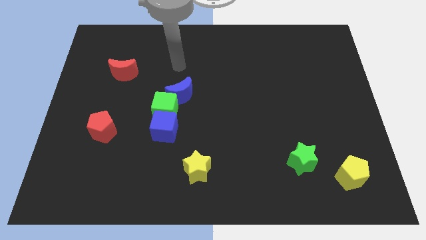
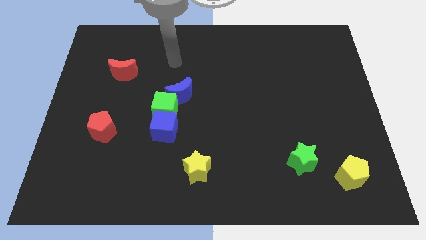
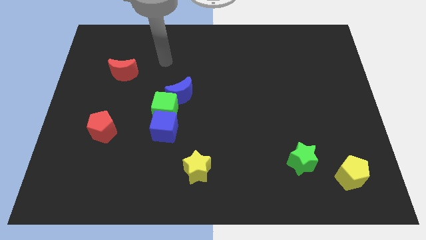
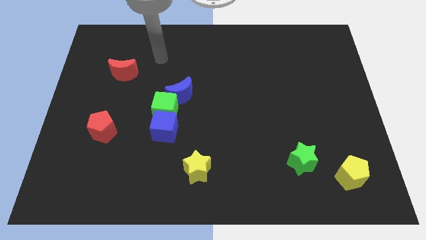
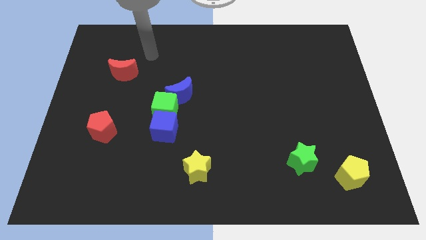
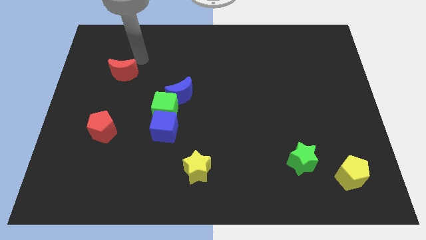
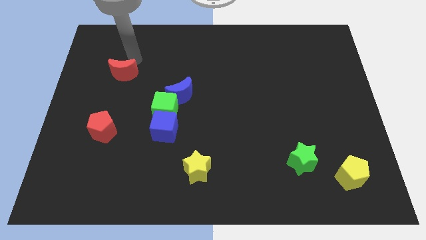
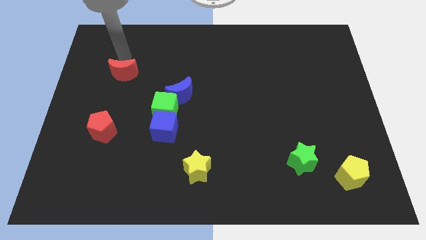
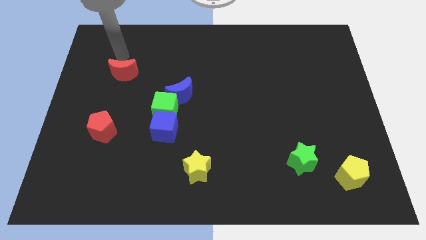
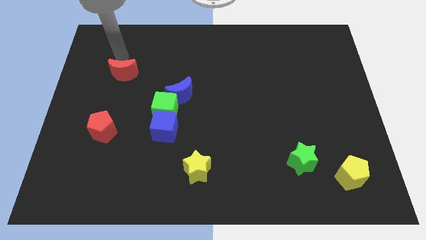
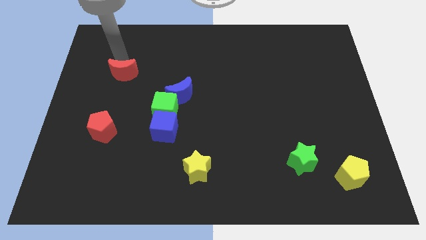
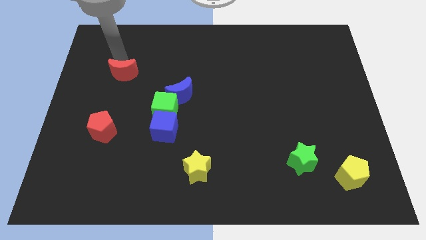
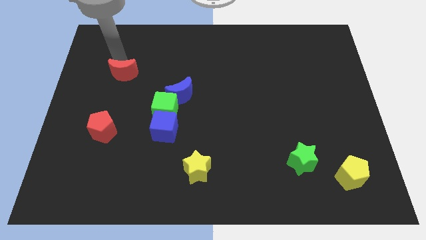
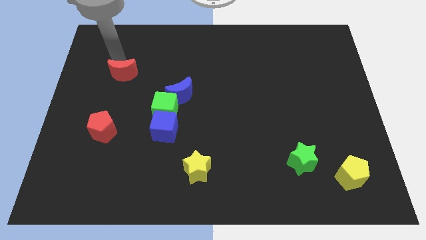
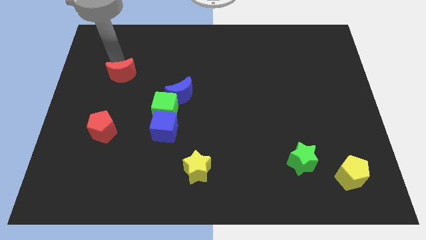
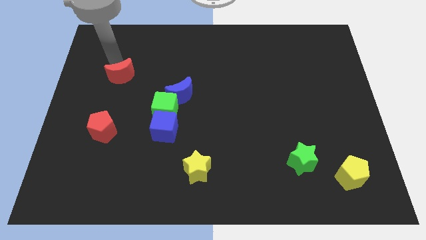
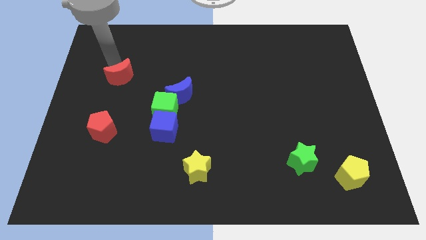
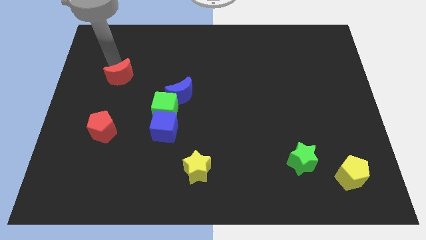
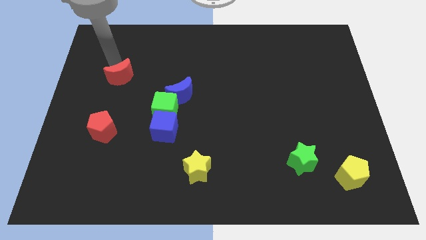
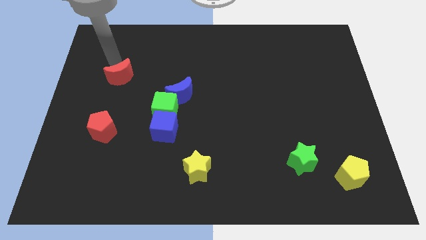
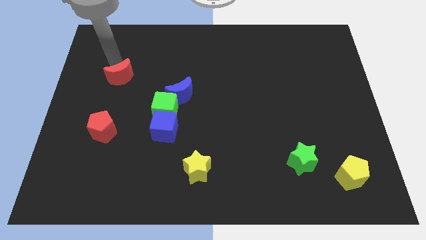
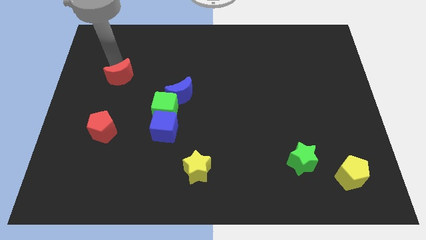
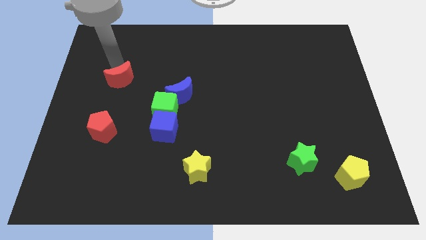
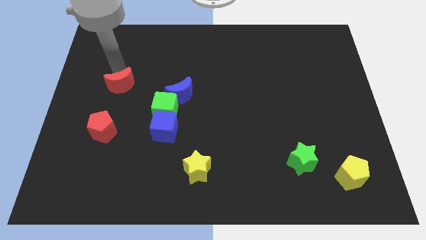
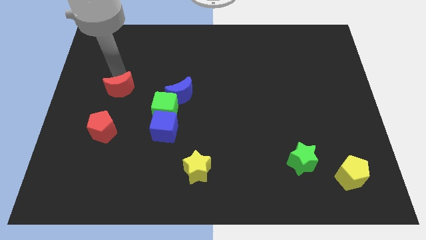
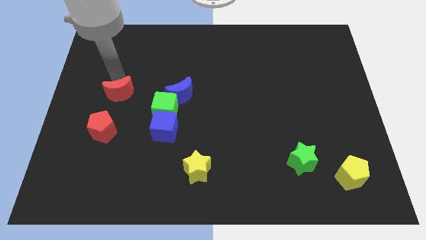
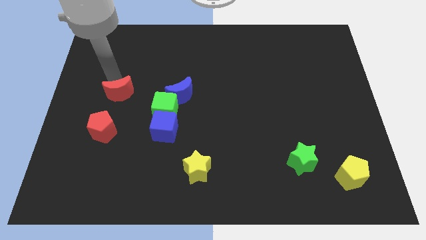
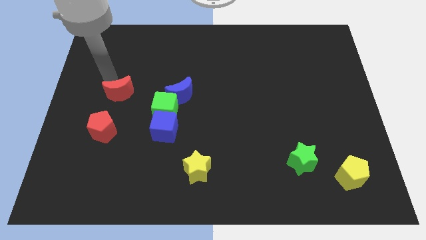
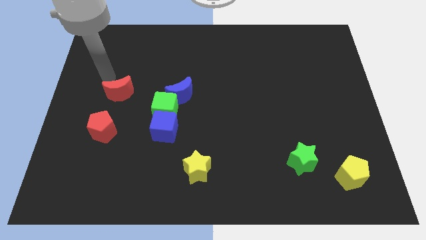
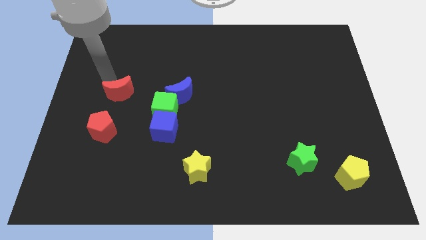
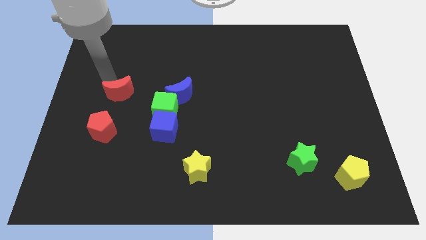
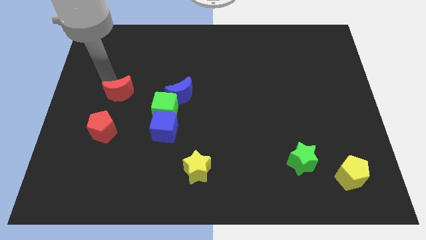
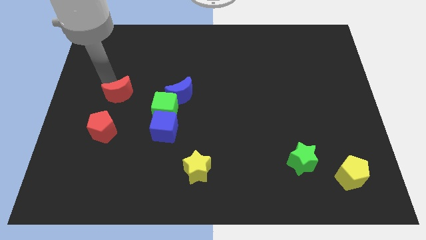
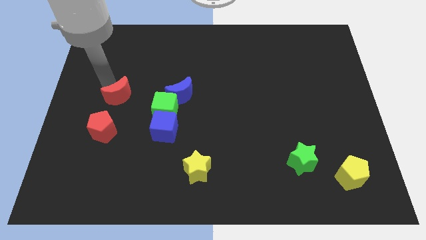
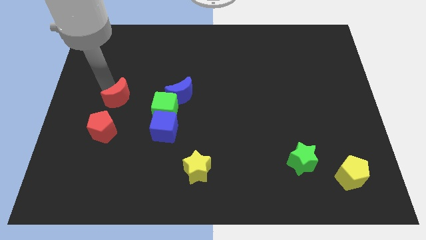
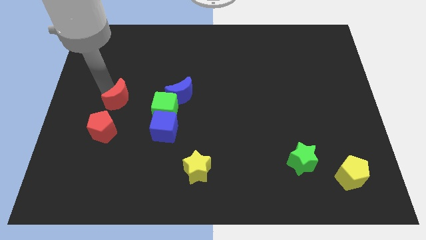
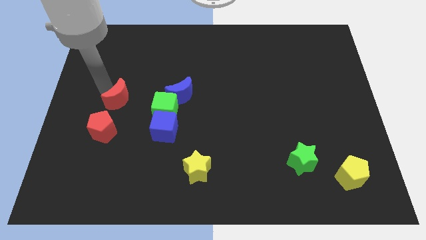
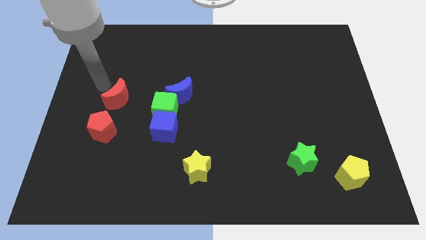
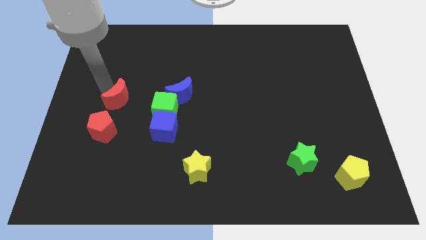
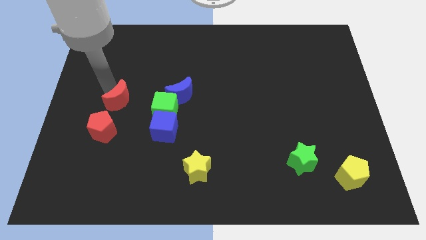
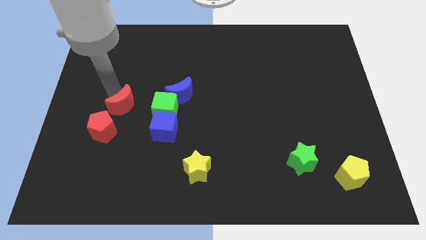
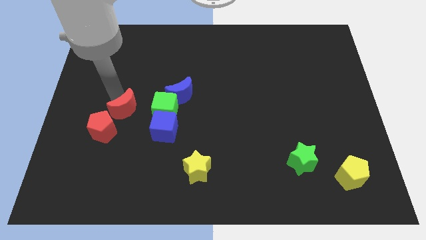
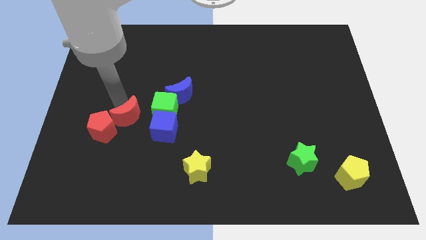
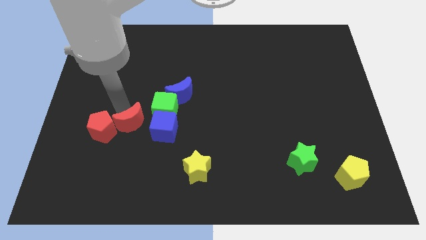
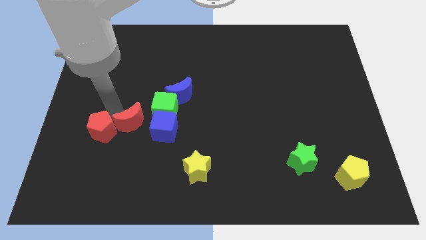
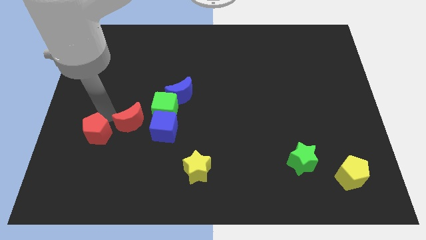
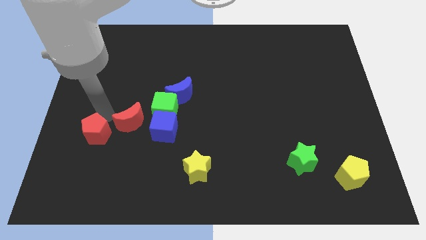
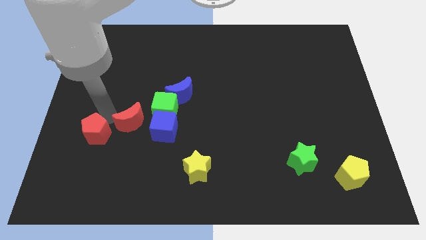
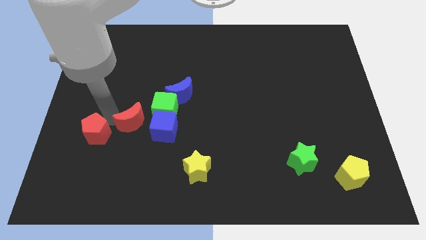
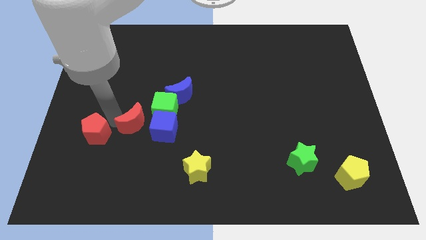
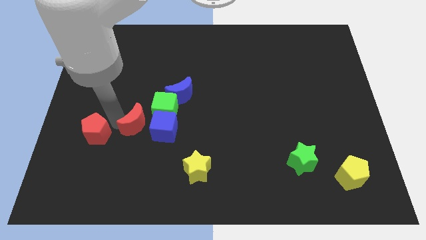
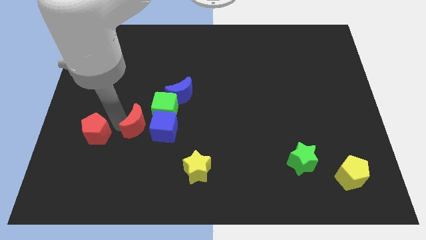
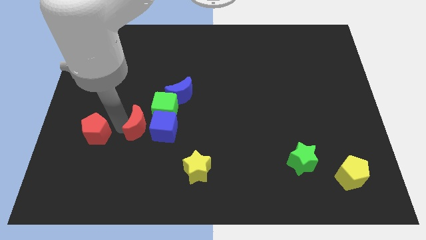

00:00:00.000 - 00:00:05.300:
put the red moon next to the blue cube

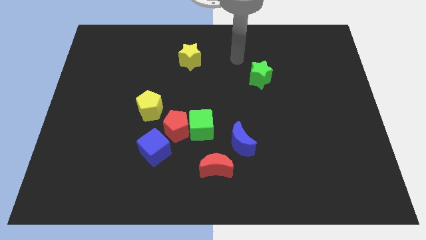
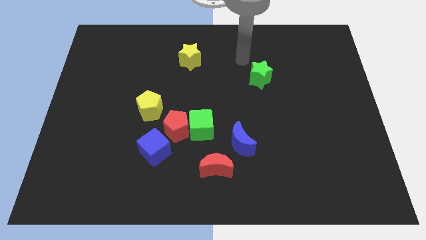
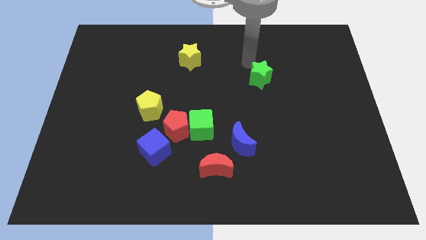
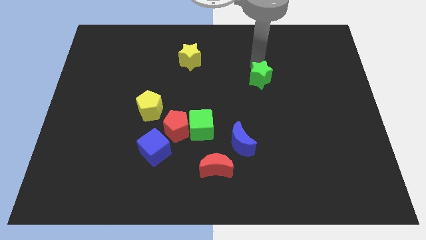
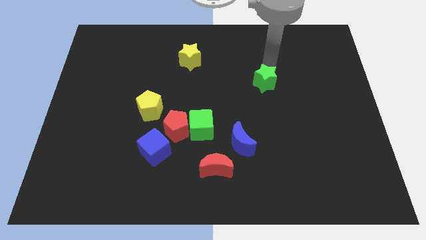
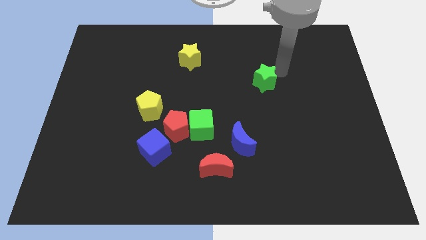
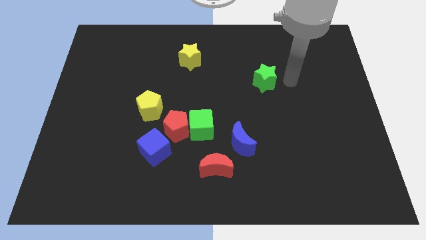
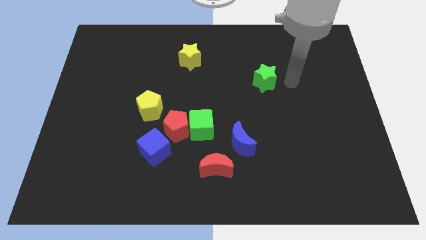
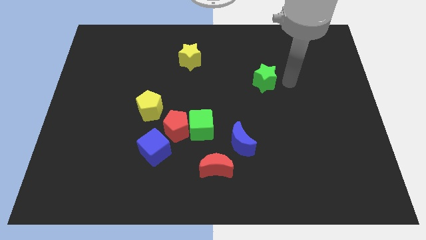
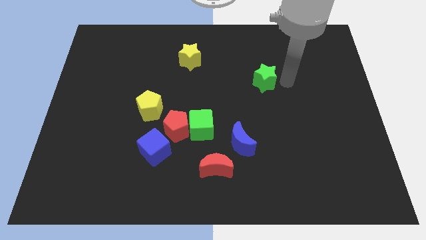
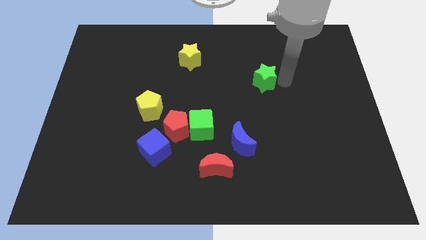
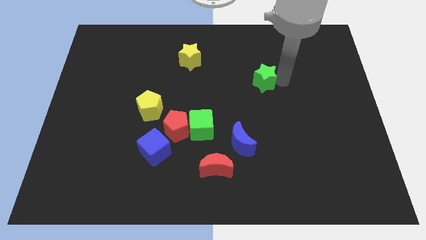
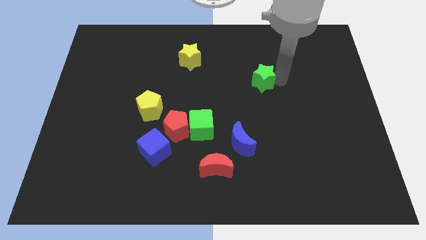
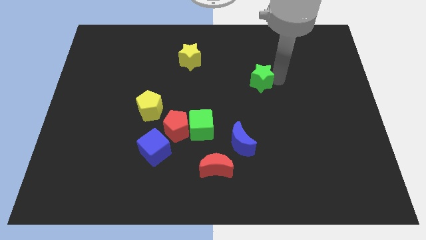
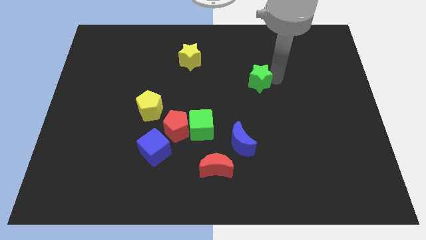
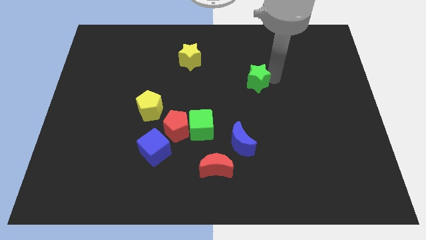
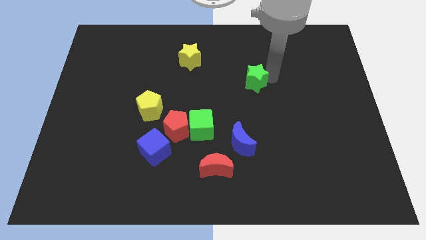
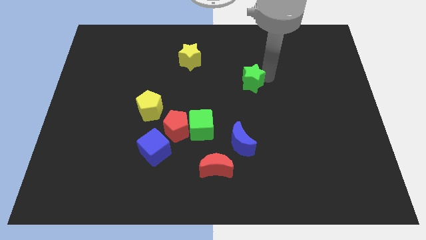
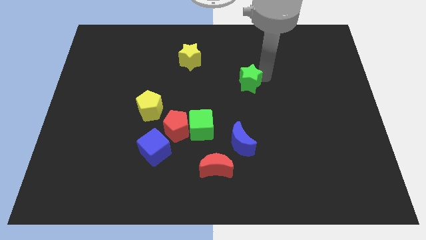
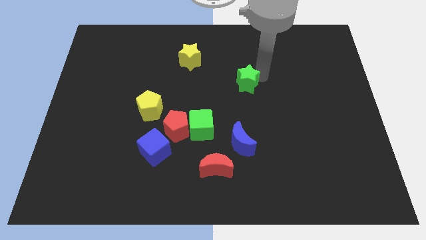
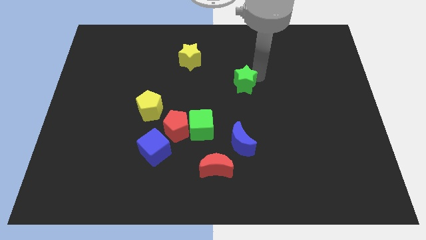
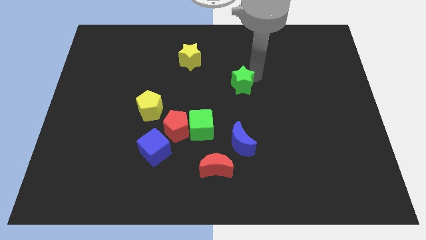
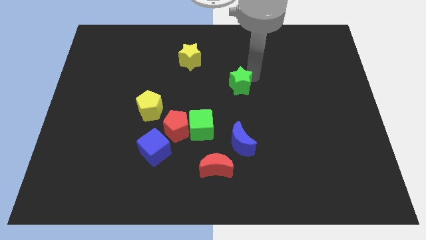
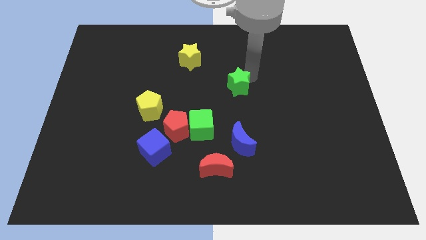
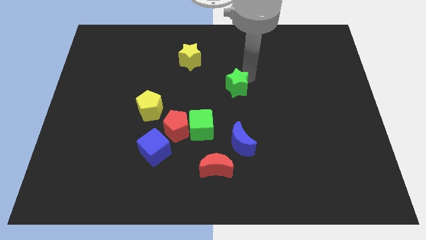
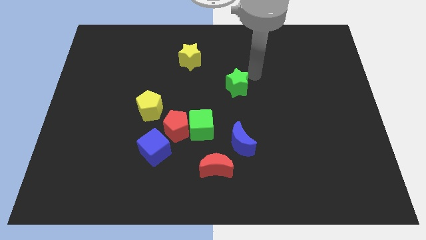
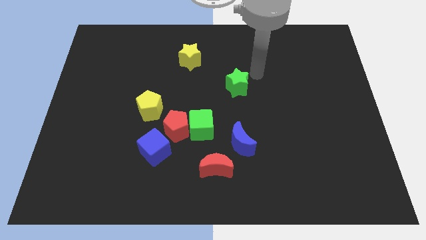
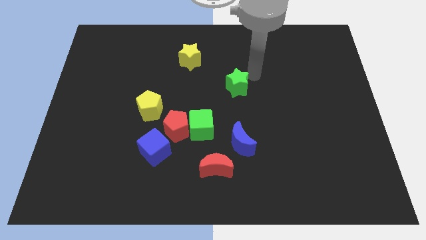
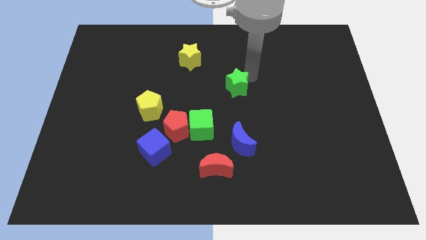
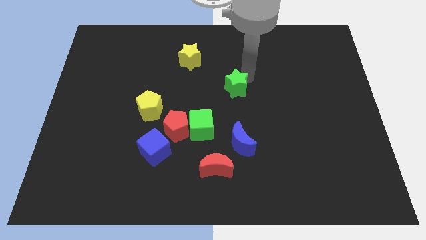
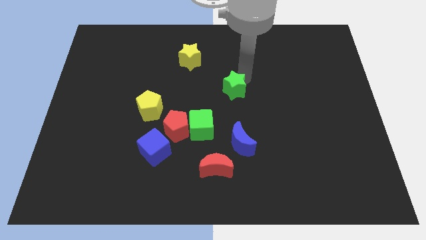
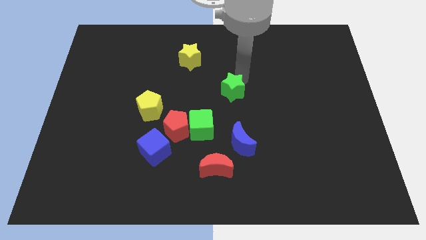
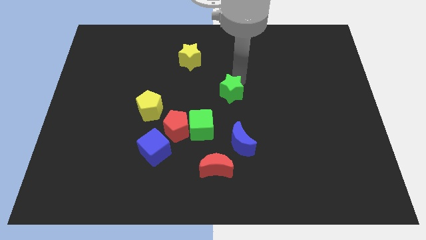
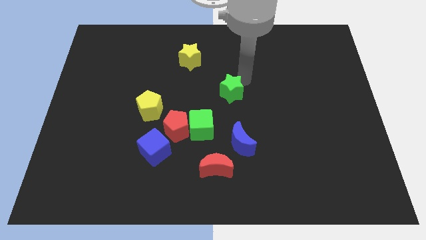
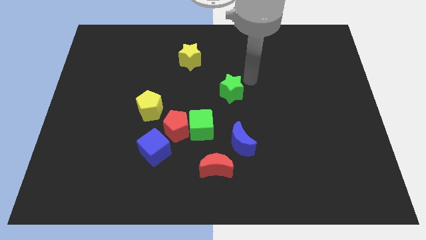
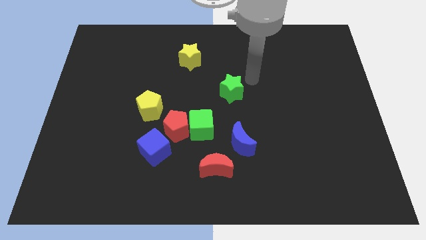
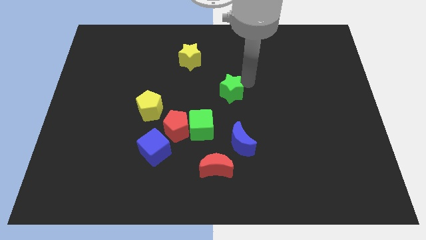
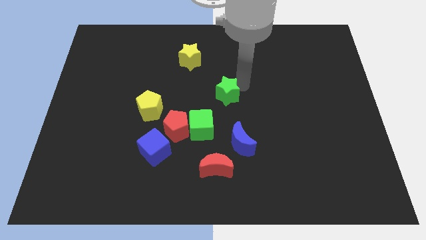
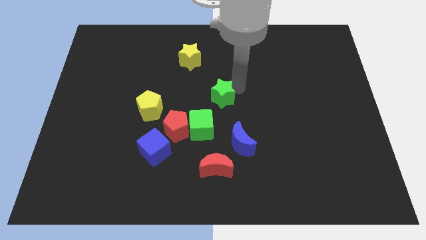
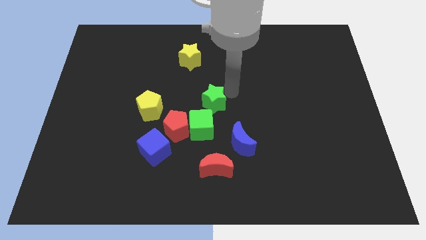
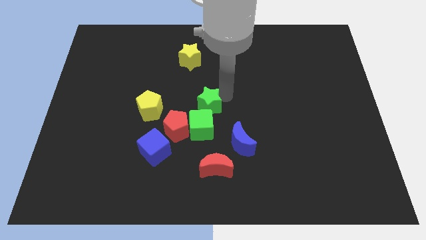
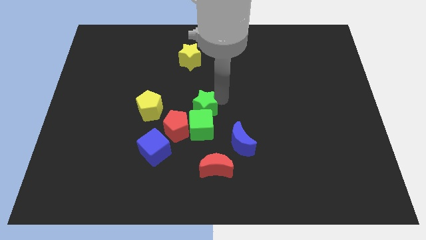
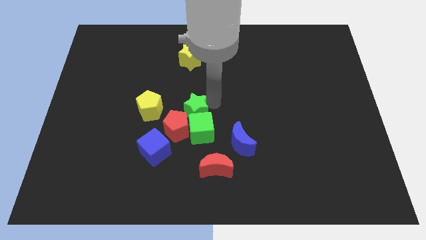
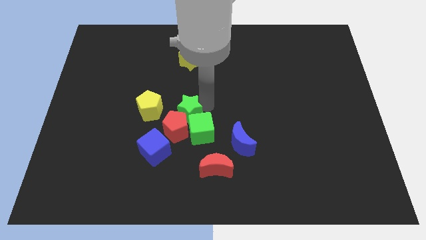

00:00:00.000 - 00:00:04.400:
put the green star towards the red pentagon
